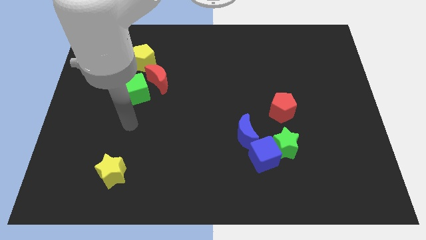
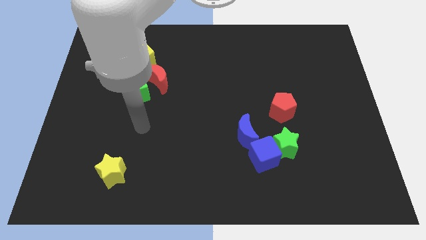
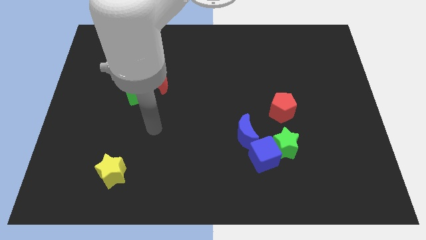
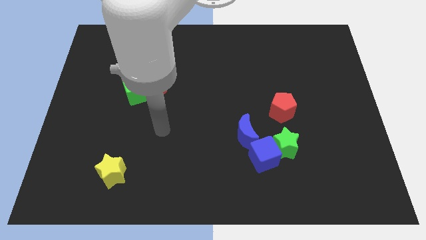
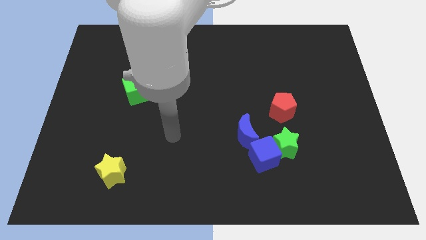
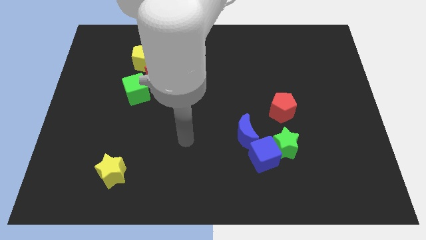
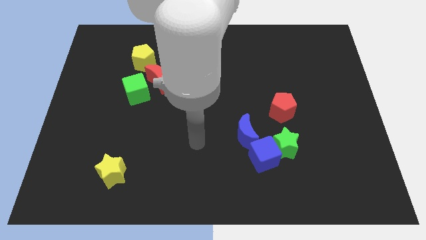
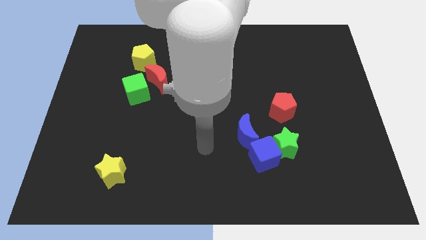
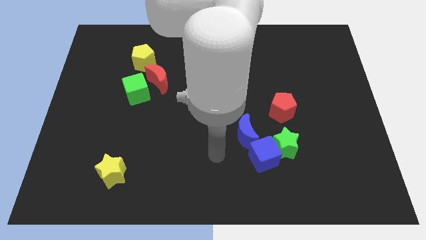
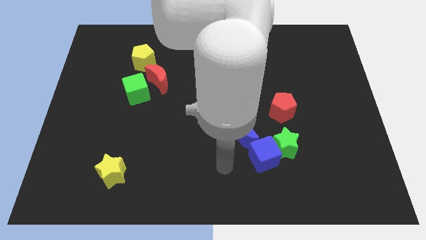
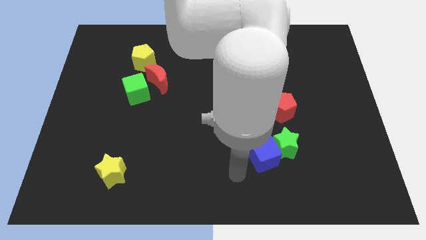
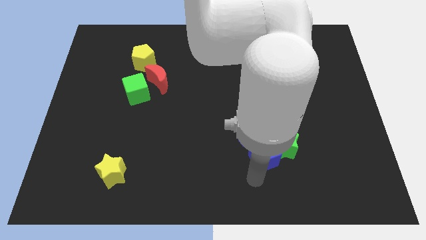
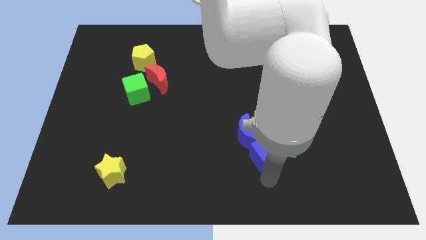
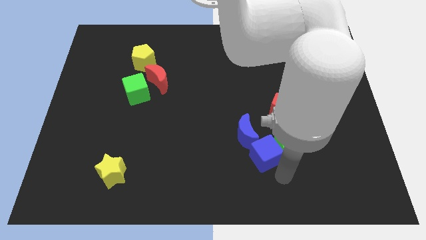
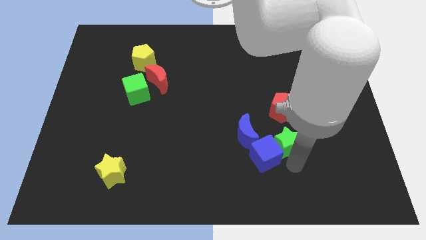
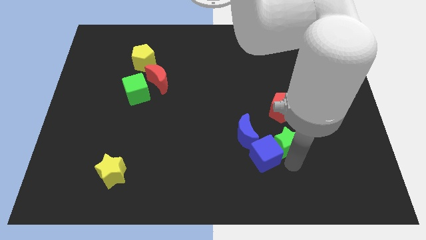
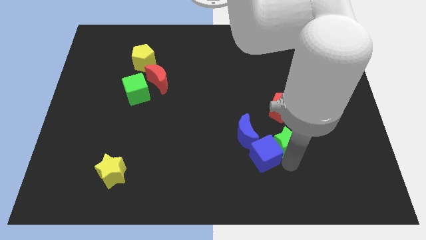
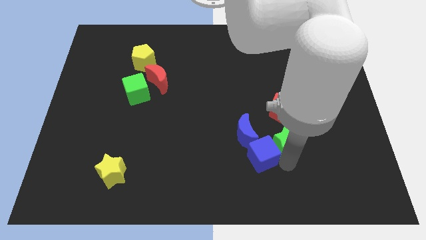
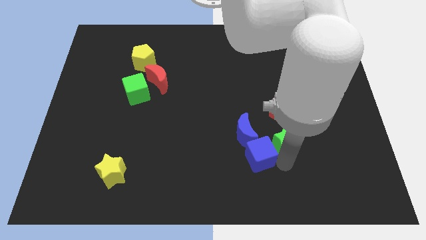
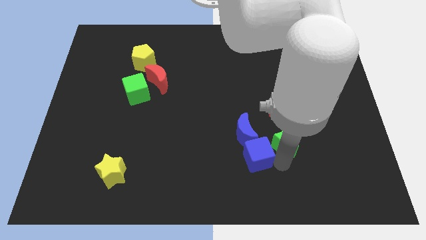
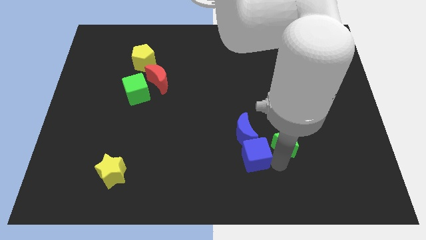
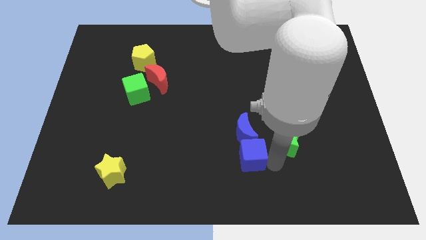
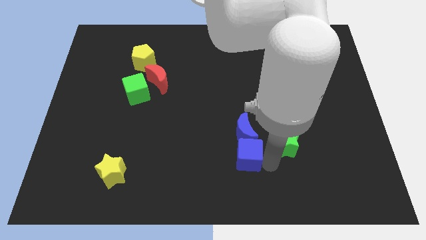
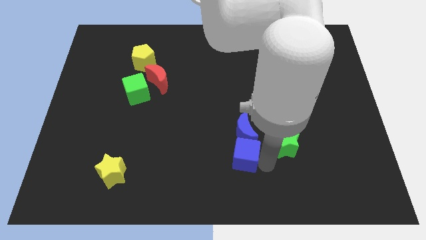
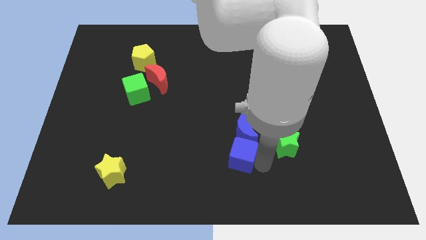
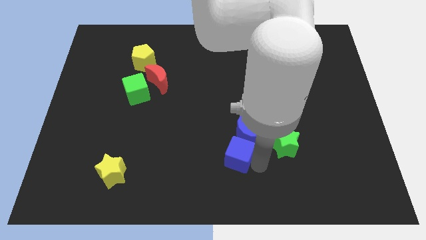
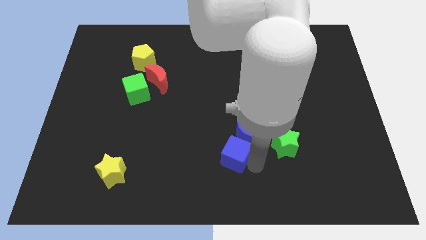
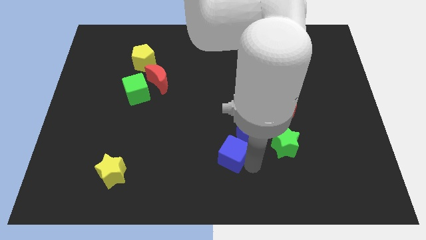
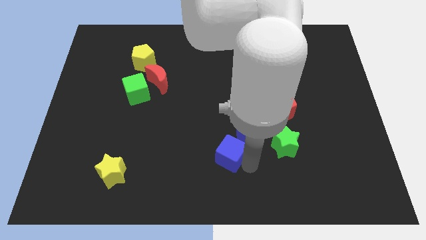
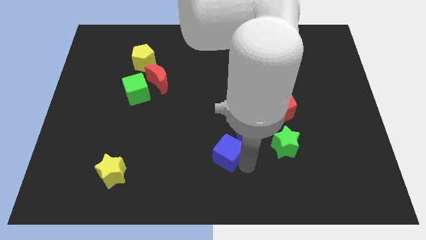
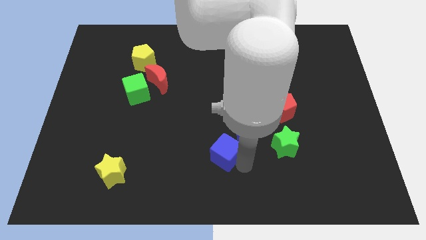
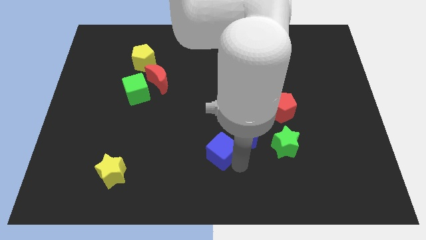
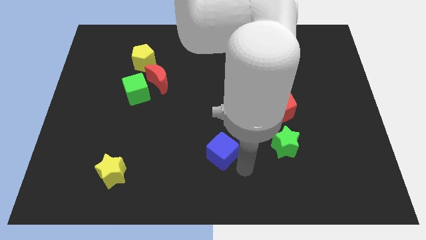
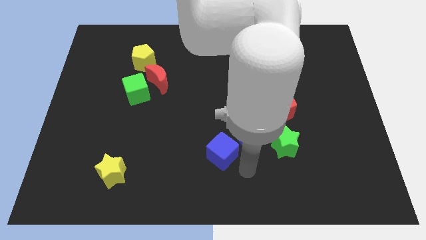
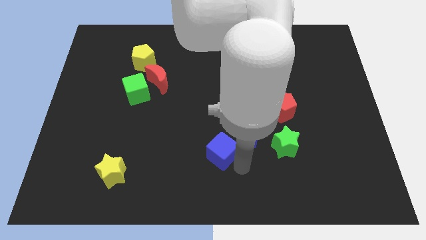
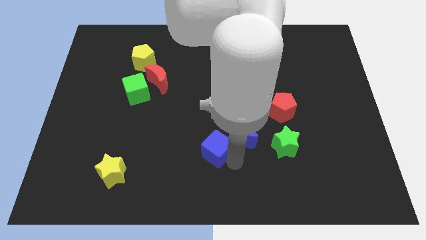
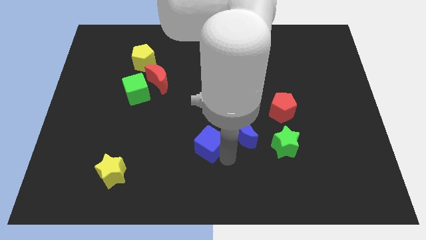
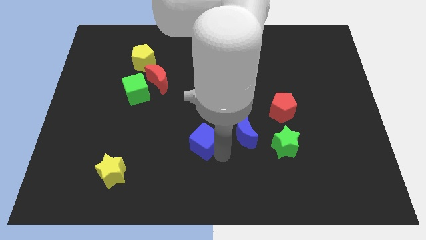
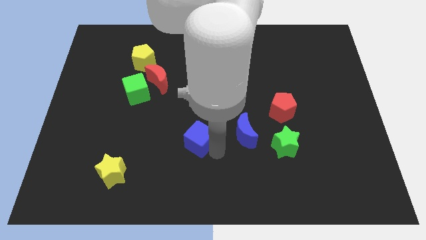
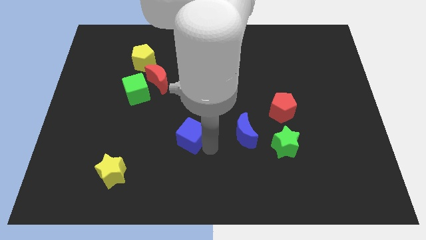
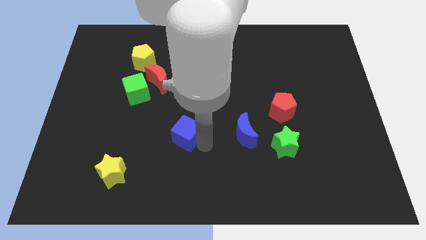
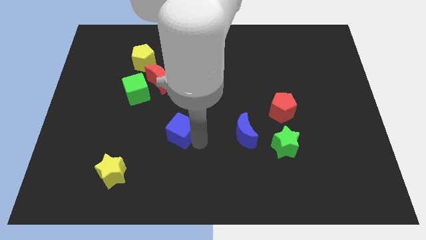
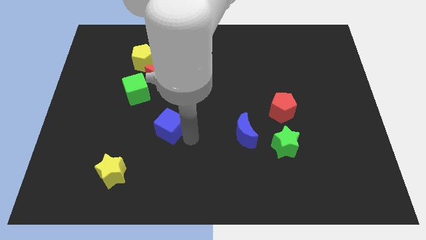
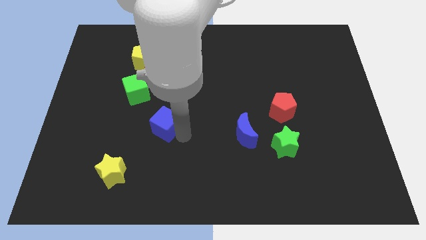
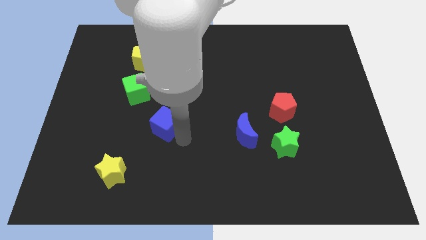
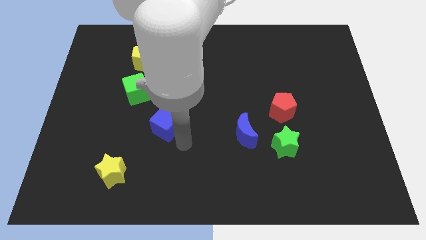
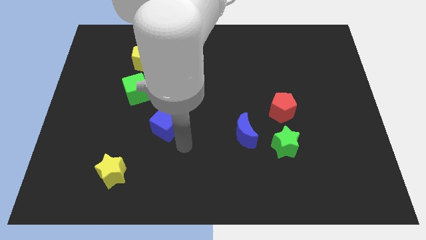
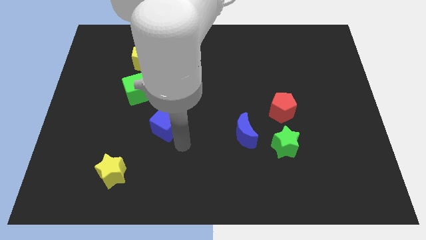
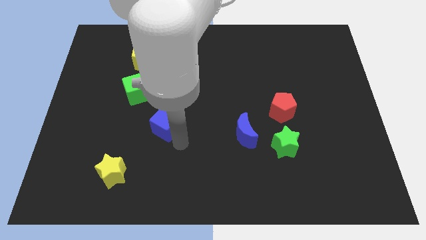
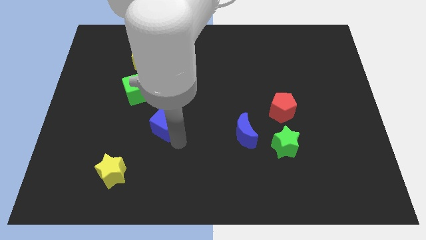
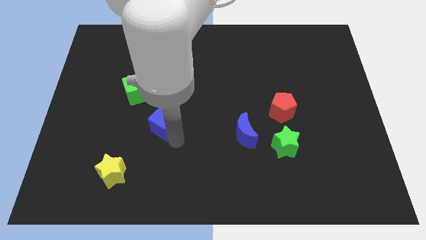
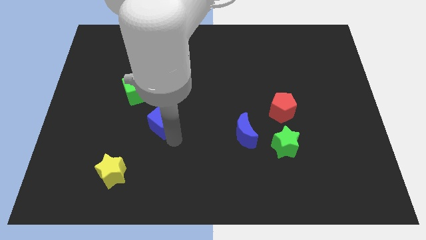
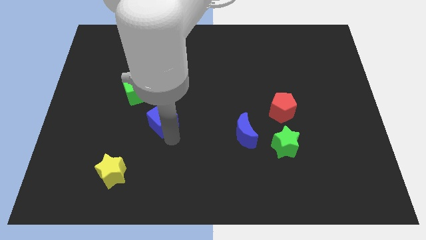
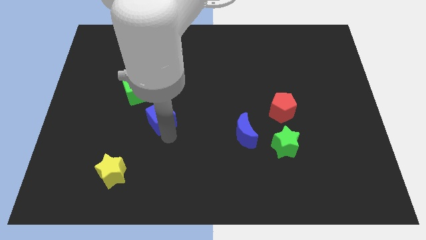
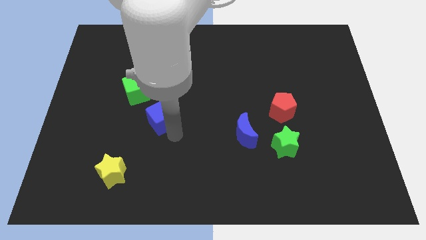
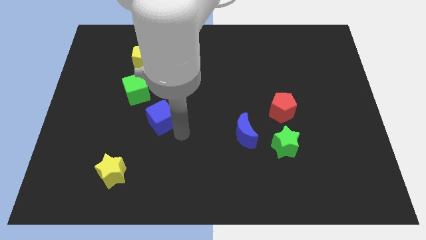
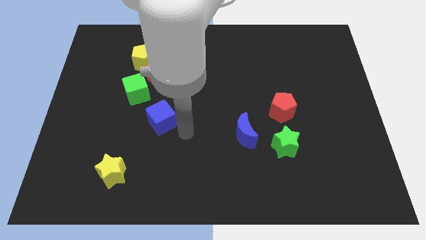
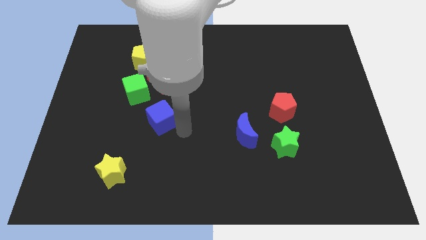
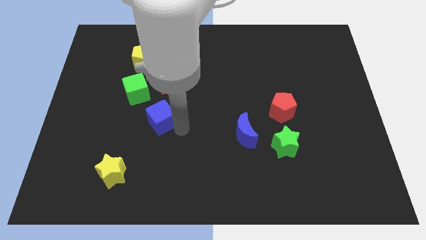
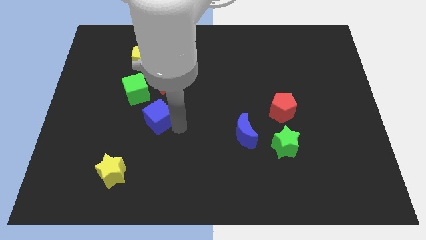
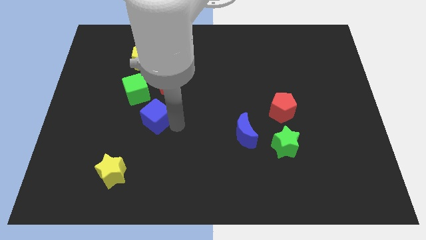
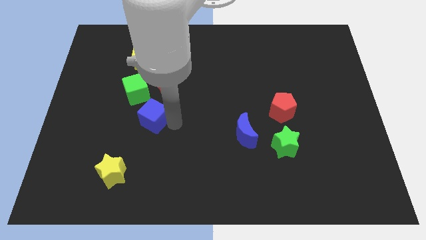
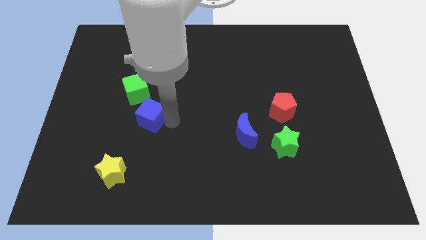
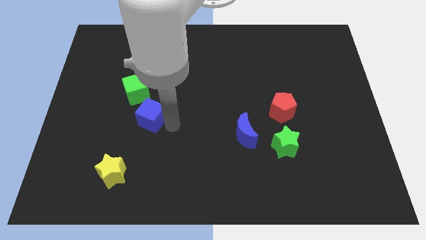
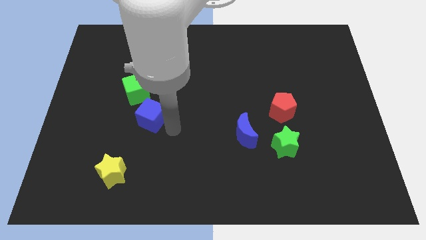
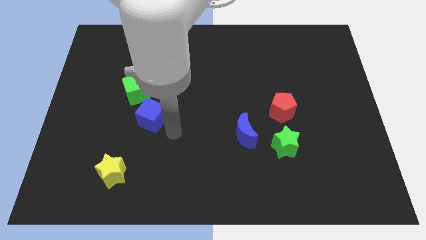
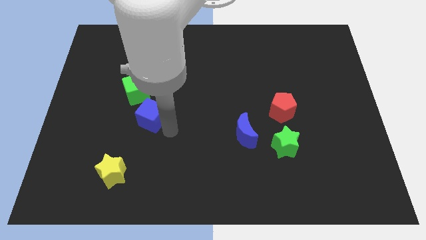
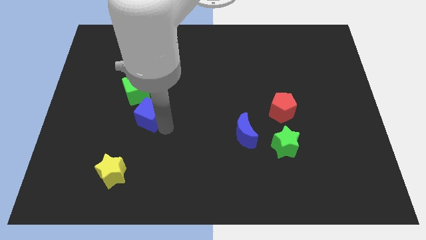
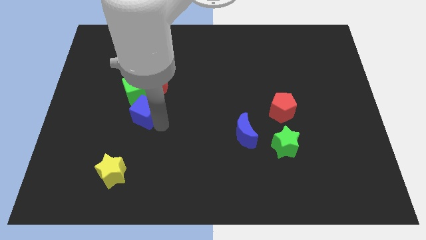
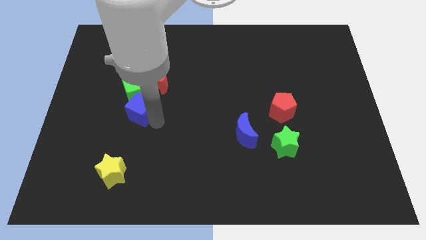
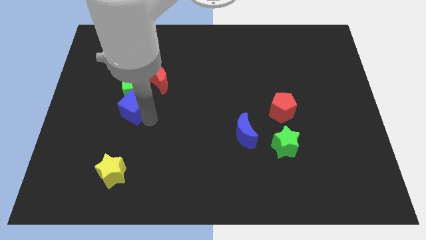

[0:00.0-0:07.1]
push the blue cube below the yellow pentagon

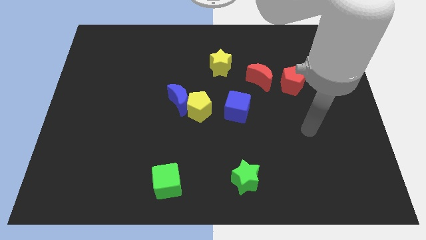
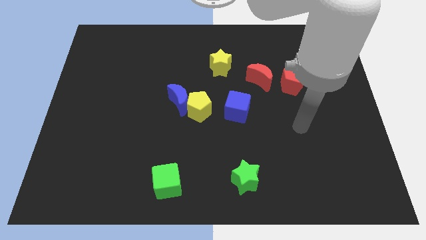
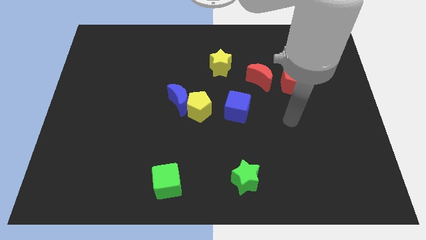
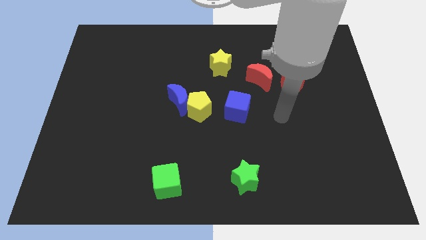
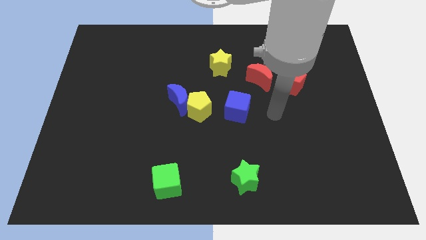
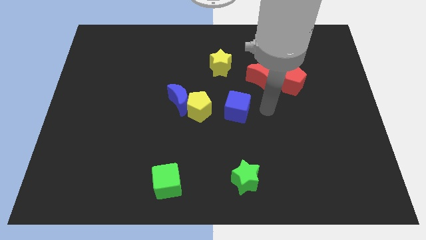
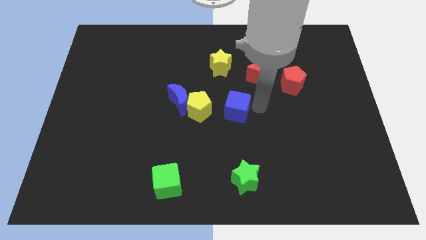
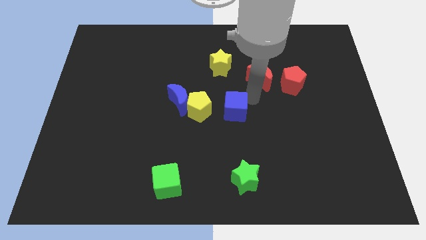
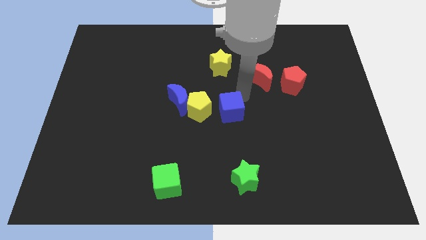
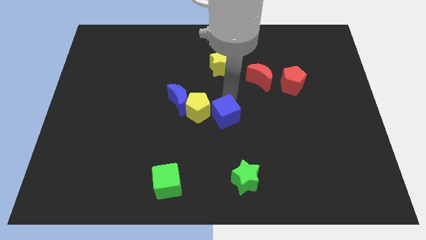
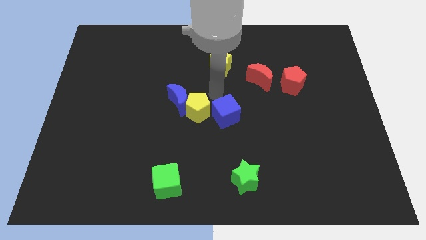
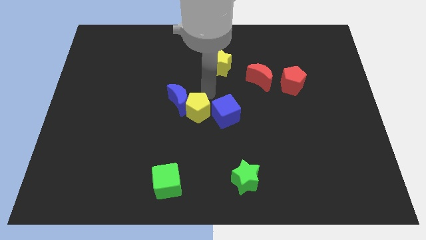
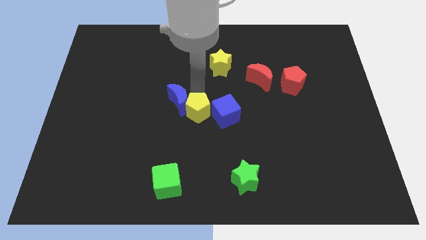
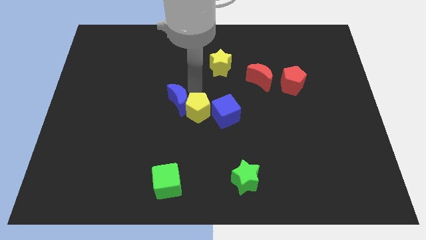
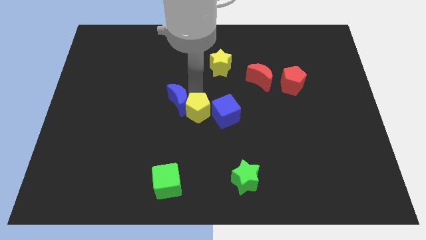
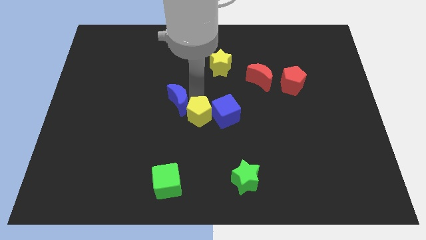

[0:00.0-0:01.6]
slide the yellow pentagon diagonally down and to the left of the blue cube
